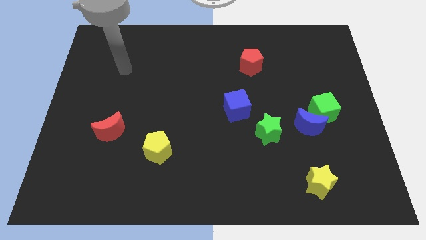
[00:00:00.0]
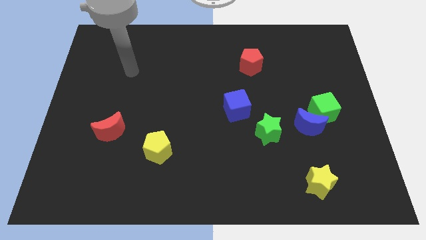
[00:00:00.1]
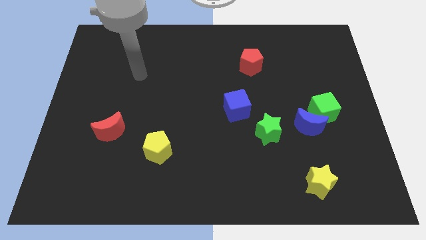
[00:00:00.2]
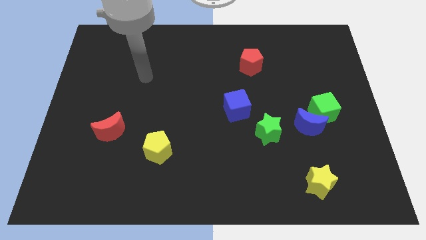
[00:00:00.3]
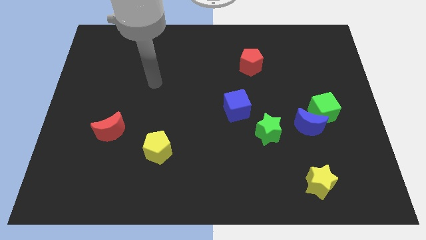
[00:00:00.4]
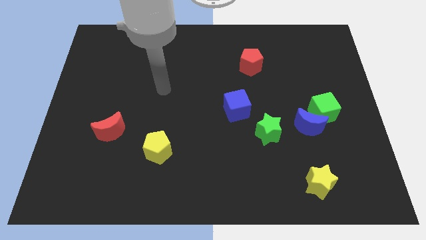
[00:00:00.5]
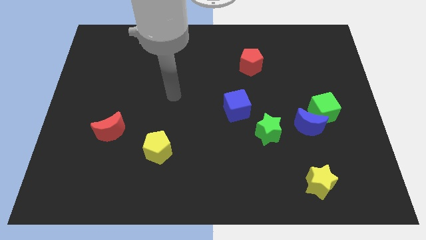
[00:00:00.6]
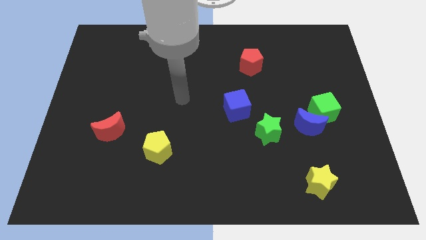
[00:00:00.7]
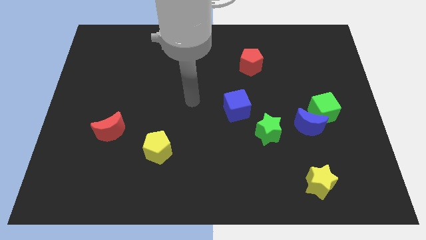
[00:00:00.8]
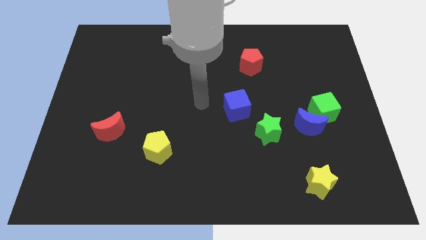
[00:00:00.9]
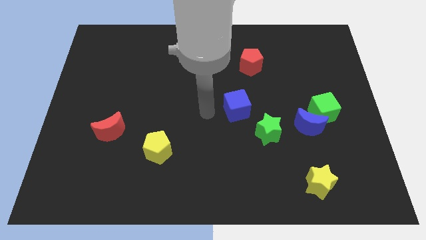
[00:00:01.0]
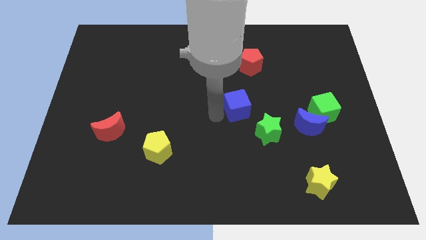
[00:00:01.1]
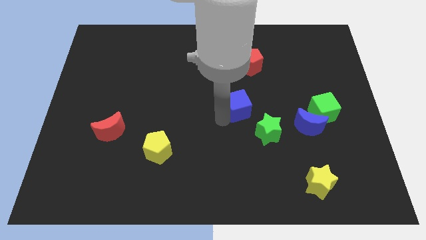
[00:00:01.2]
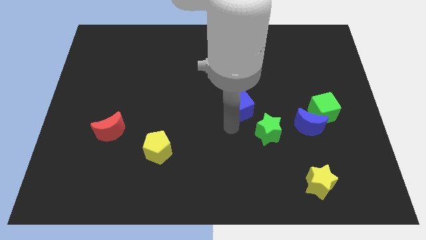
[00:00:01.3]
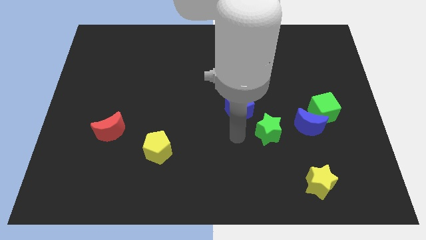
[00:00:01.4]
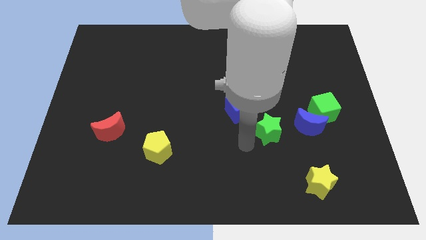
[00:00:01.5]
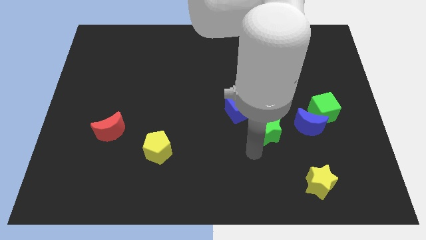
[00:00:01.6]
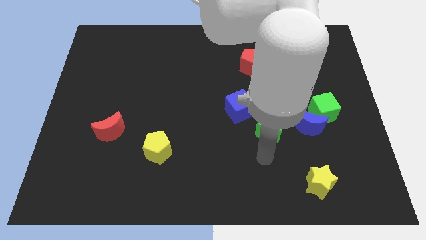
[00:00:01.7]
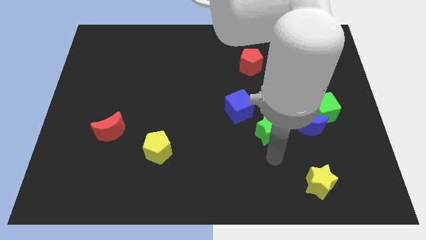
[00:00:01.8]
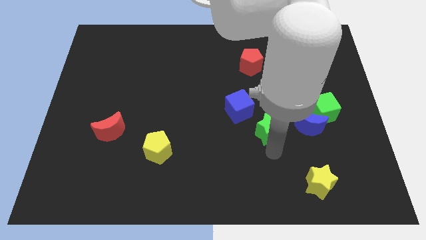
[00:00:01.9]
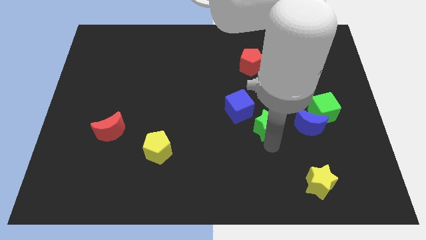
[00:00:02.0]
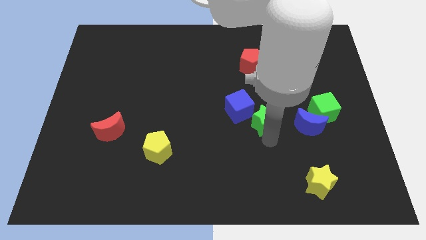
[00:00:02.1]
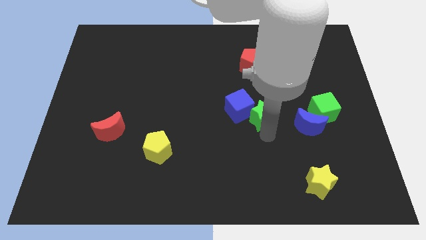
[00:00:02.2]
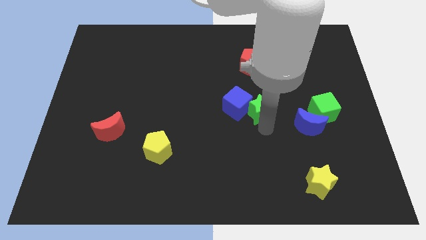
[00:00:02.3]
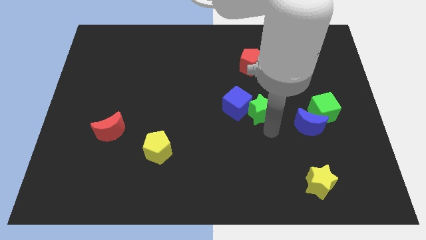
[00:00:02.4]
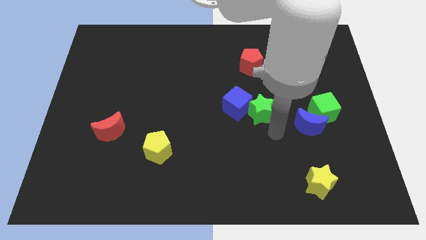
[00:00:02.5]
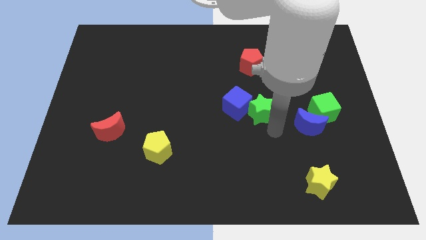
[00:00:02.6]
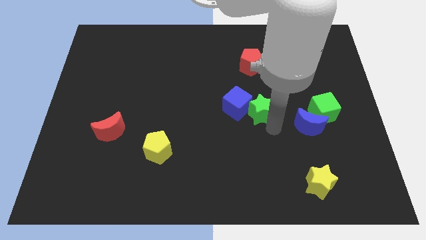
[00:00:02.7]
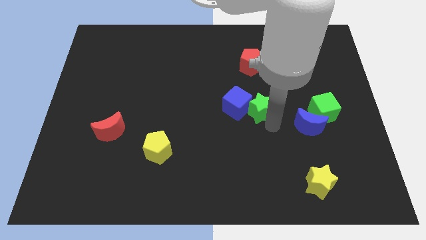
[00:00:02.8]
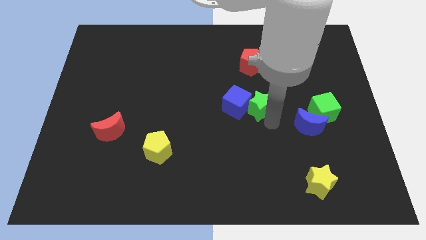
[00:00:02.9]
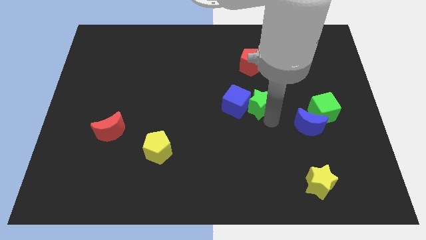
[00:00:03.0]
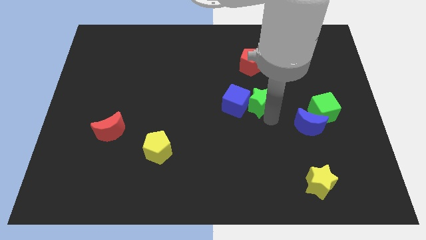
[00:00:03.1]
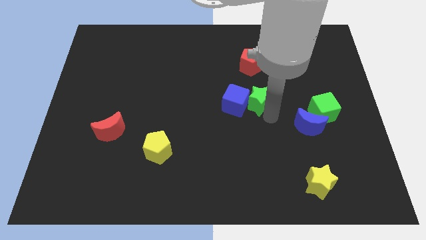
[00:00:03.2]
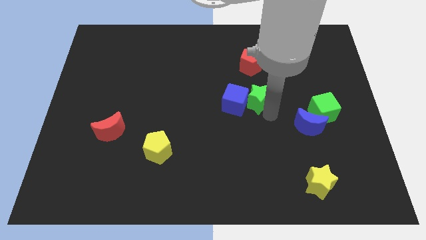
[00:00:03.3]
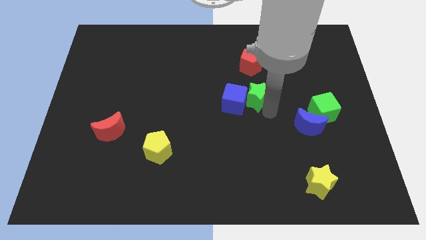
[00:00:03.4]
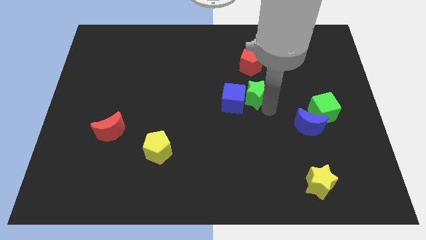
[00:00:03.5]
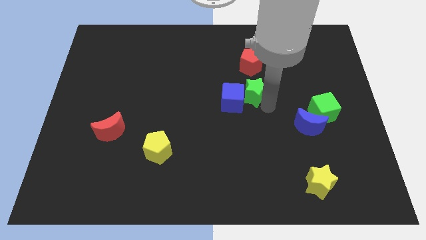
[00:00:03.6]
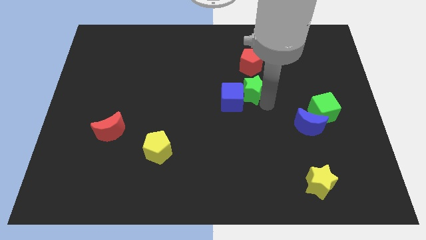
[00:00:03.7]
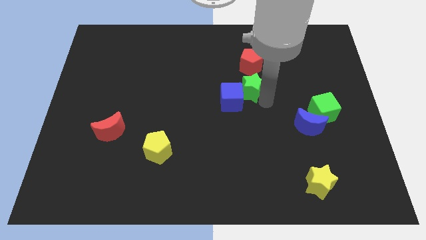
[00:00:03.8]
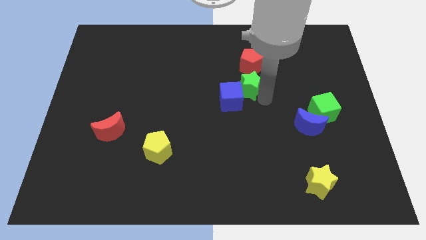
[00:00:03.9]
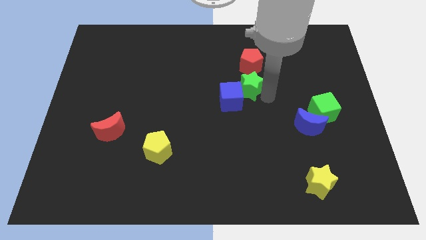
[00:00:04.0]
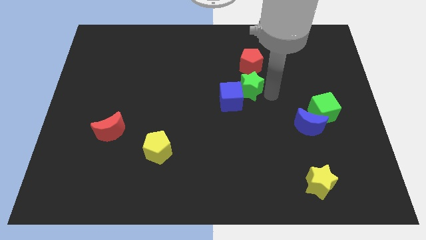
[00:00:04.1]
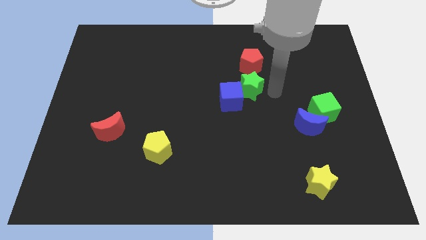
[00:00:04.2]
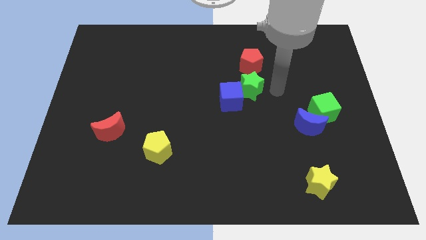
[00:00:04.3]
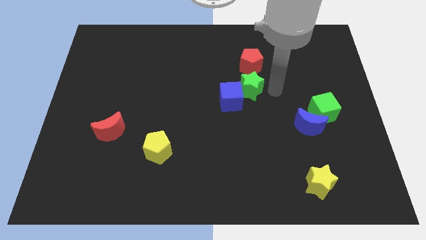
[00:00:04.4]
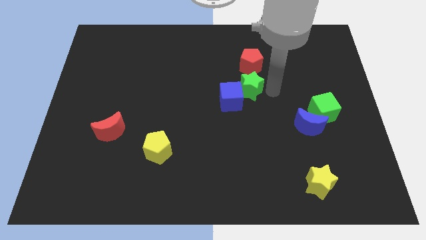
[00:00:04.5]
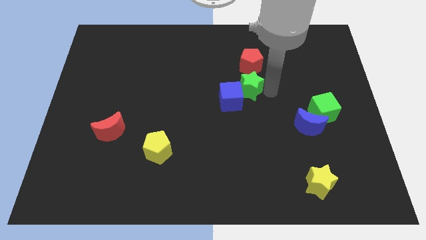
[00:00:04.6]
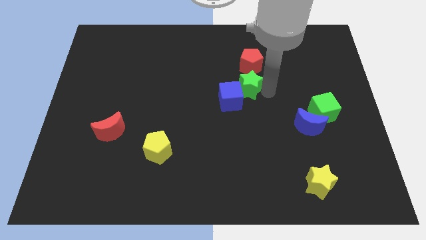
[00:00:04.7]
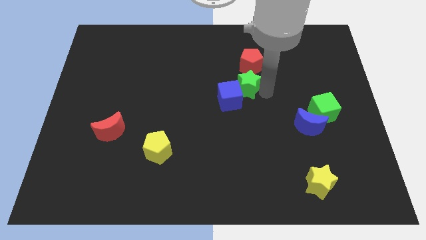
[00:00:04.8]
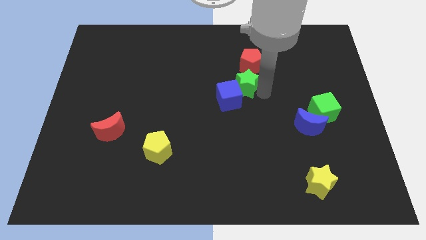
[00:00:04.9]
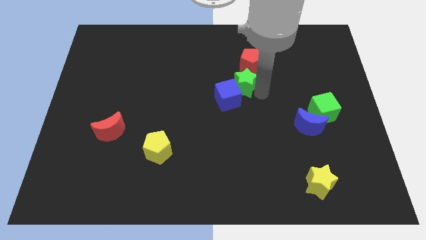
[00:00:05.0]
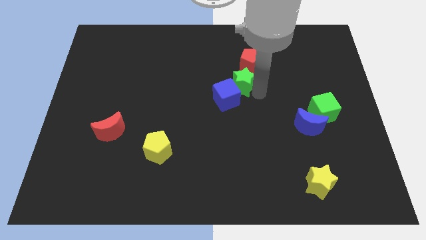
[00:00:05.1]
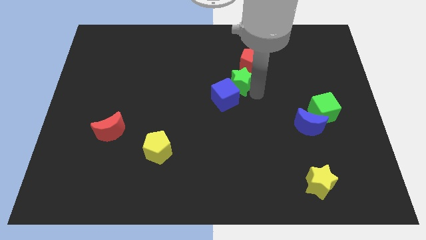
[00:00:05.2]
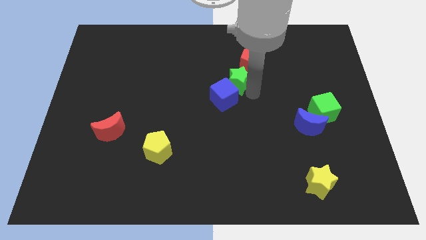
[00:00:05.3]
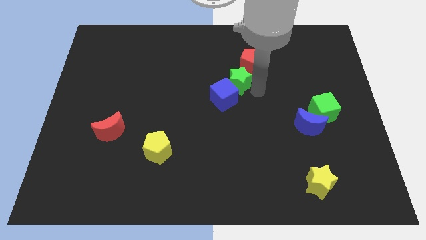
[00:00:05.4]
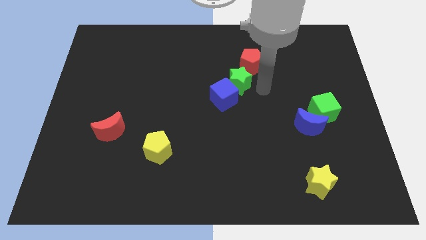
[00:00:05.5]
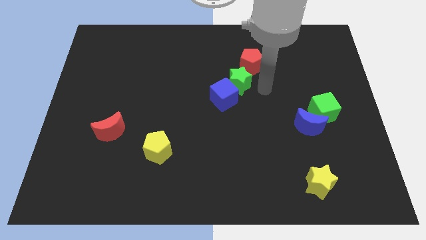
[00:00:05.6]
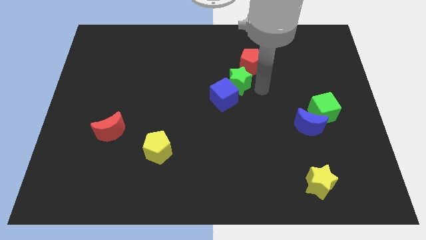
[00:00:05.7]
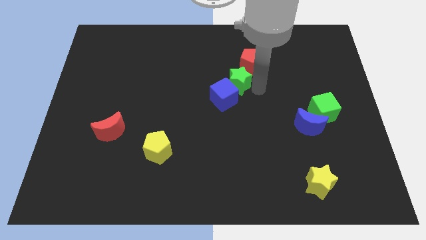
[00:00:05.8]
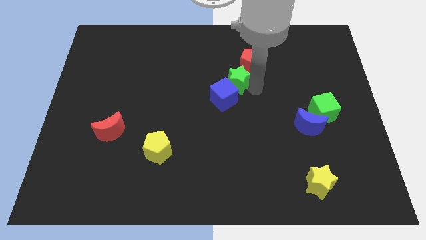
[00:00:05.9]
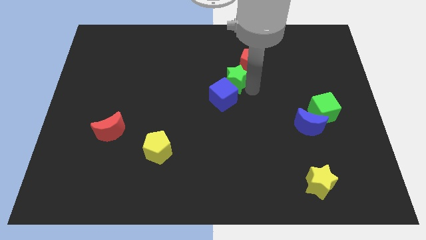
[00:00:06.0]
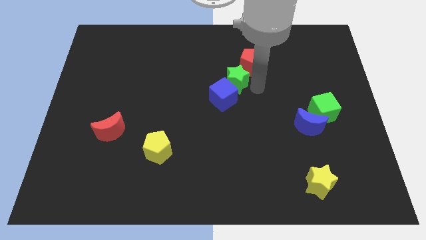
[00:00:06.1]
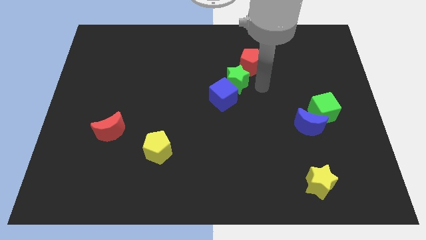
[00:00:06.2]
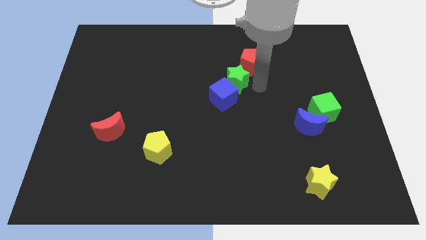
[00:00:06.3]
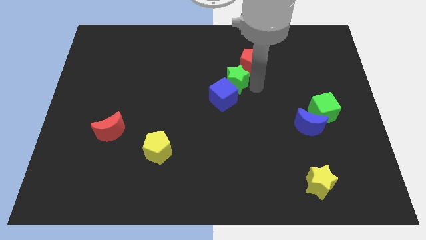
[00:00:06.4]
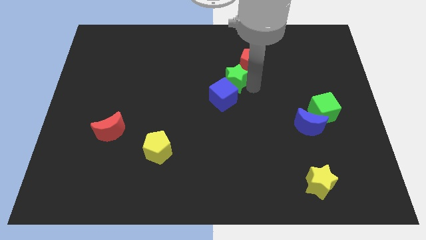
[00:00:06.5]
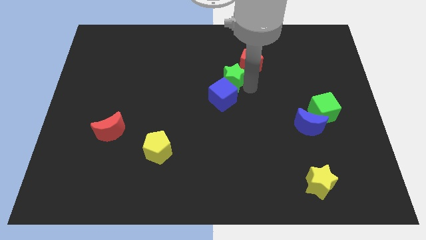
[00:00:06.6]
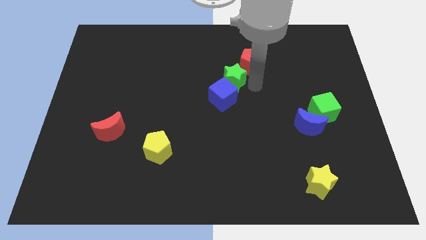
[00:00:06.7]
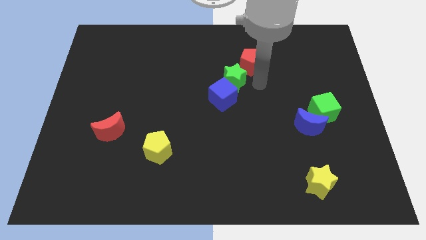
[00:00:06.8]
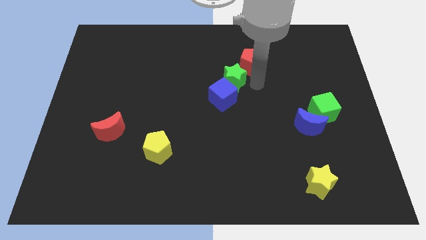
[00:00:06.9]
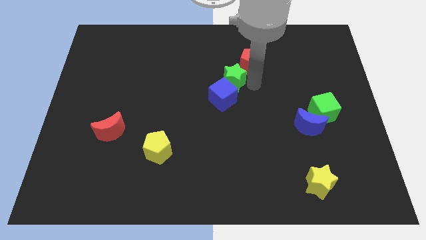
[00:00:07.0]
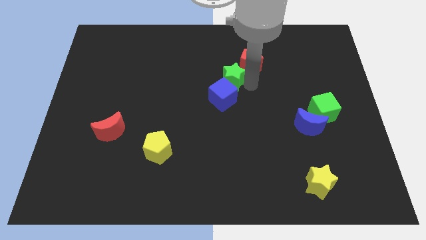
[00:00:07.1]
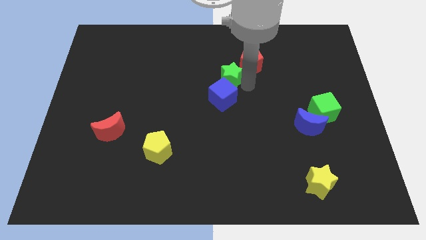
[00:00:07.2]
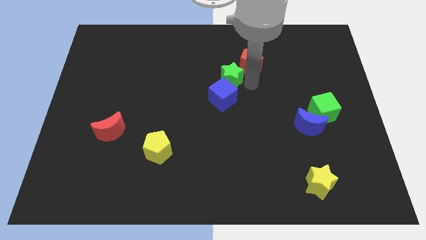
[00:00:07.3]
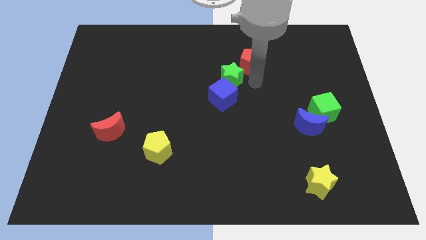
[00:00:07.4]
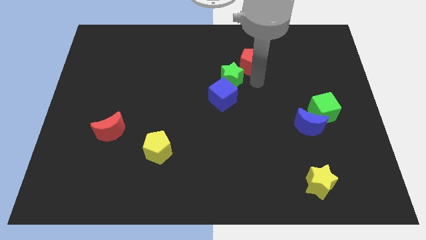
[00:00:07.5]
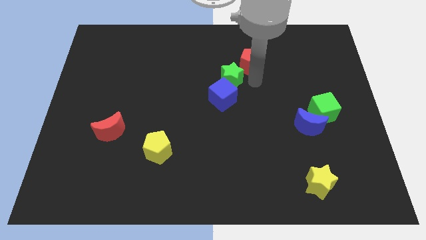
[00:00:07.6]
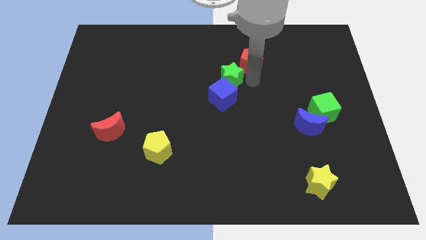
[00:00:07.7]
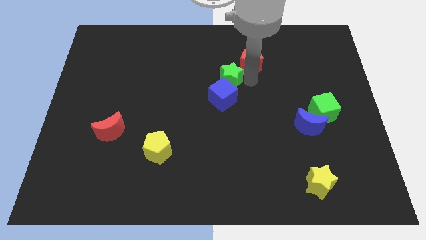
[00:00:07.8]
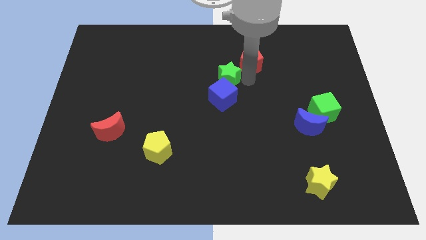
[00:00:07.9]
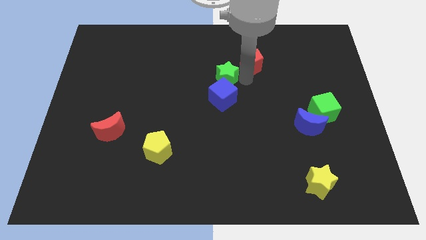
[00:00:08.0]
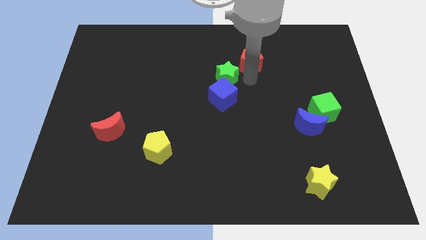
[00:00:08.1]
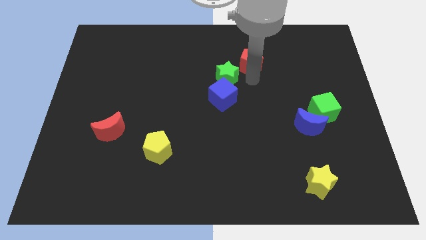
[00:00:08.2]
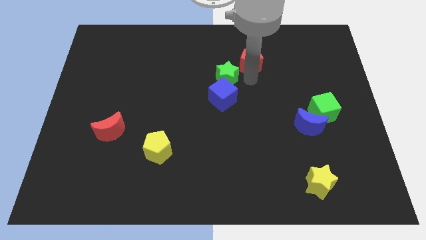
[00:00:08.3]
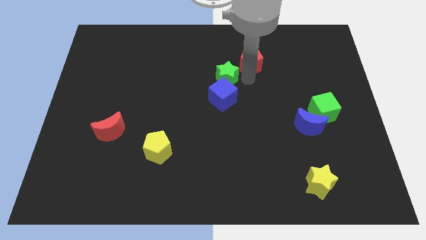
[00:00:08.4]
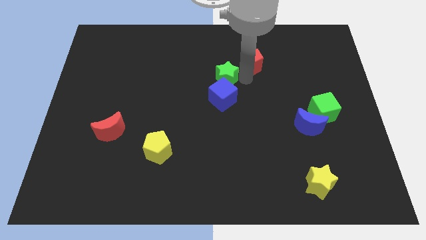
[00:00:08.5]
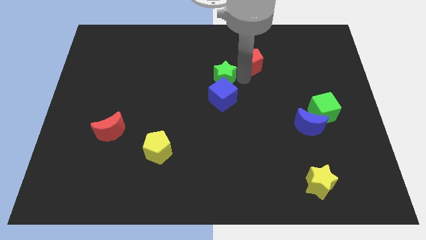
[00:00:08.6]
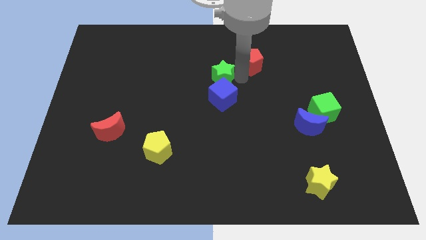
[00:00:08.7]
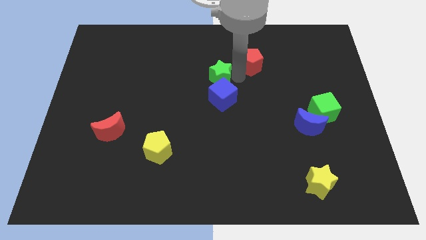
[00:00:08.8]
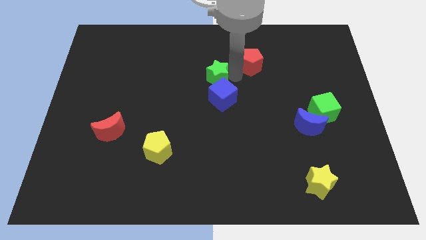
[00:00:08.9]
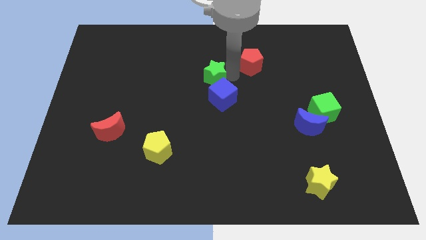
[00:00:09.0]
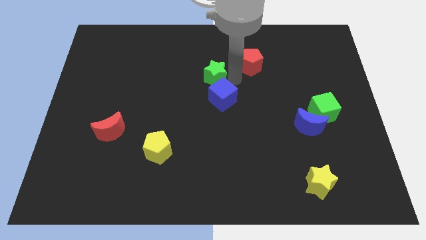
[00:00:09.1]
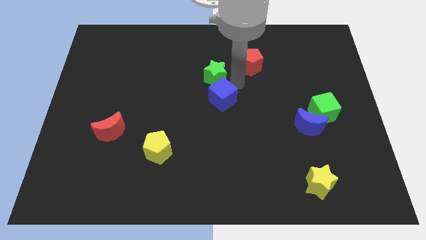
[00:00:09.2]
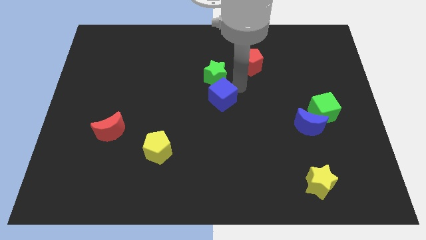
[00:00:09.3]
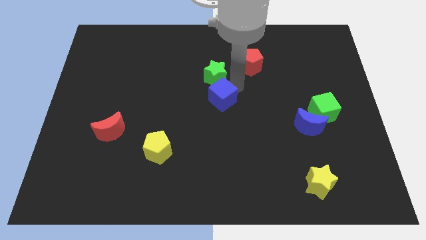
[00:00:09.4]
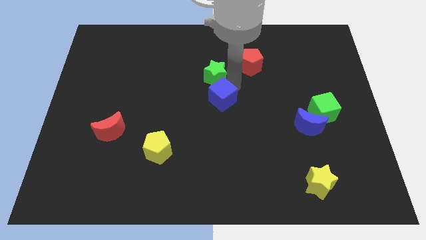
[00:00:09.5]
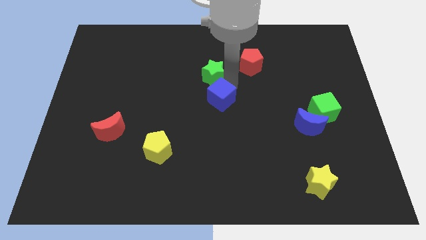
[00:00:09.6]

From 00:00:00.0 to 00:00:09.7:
push the green star upwards and left diagonally
